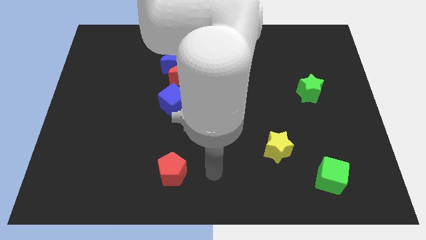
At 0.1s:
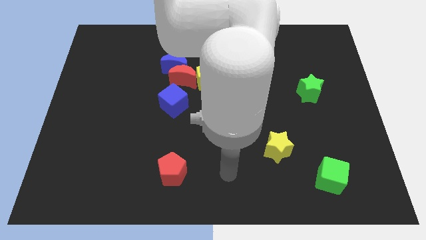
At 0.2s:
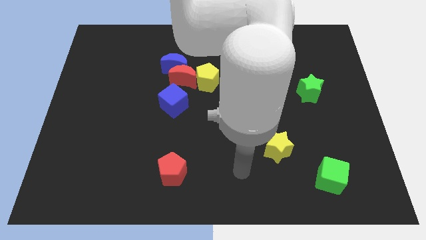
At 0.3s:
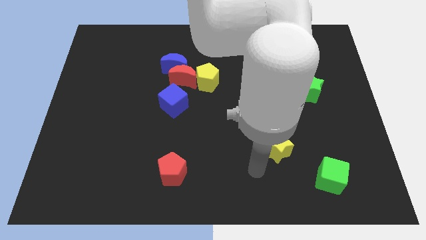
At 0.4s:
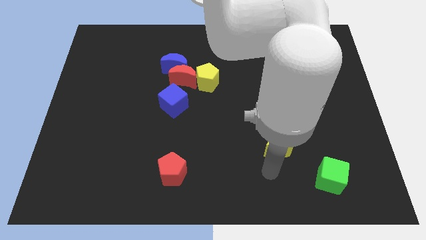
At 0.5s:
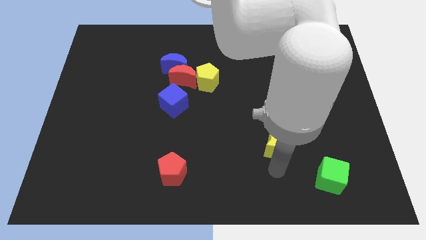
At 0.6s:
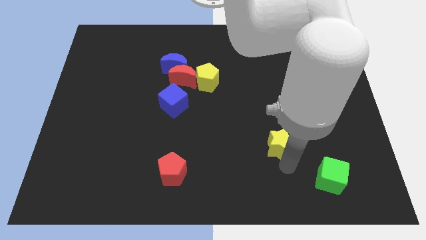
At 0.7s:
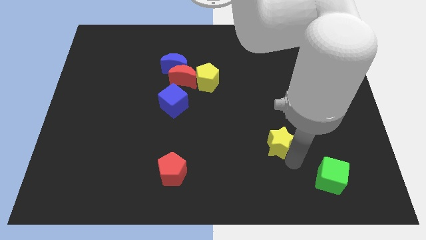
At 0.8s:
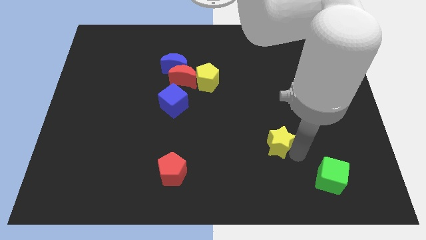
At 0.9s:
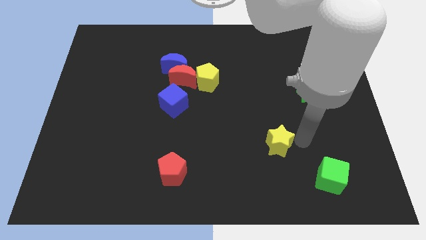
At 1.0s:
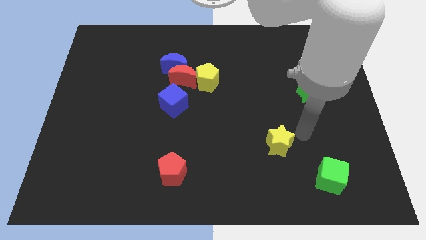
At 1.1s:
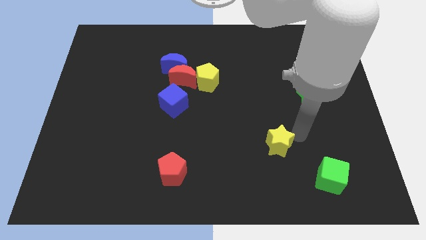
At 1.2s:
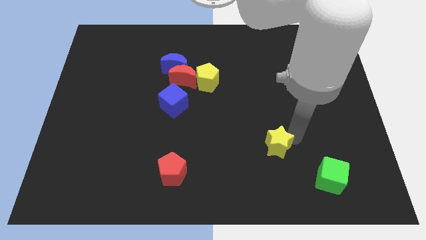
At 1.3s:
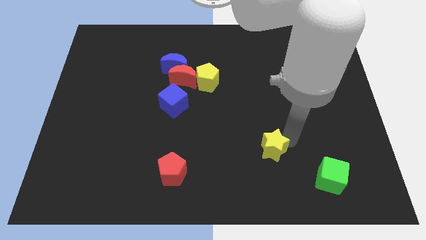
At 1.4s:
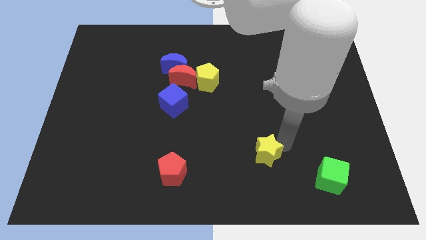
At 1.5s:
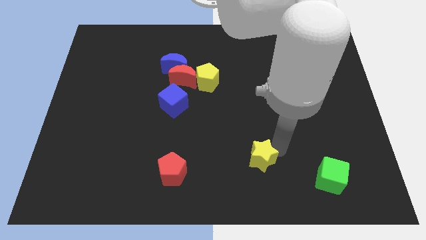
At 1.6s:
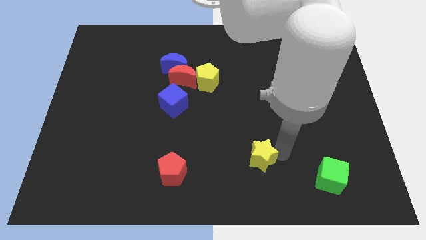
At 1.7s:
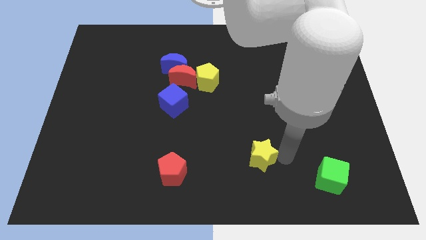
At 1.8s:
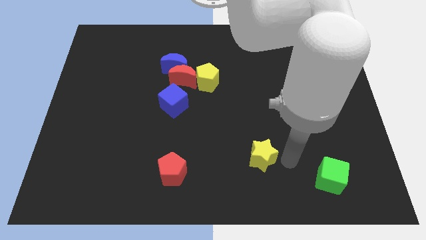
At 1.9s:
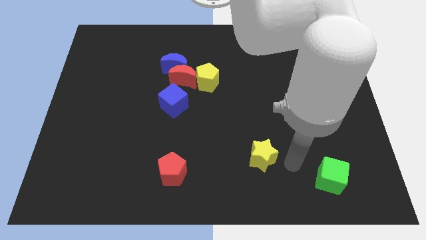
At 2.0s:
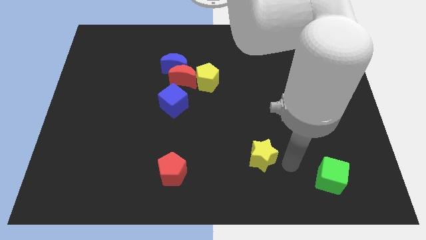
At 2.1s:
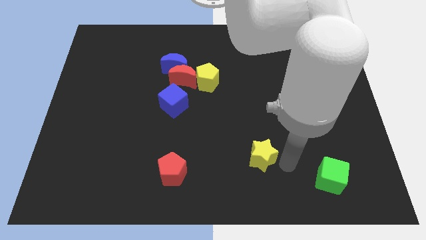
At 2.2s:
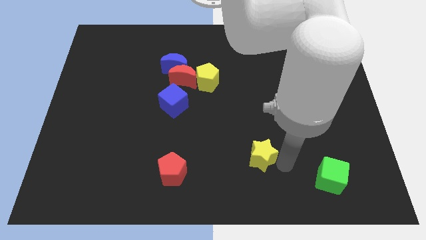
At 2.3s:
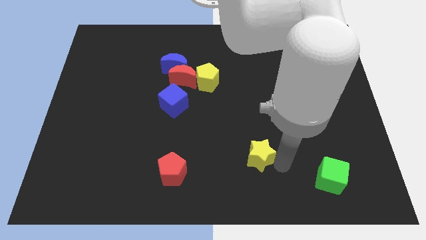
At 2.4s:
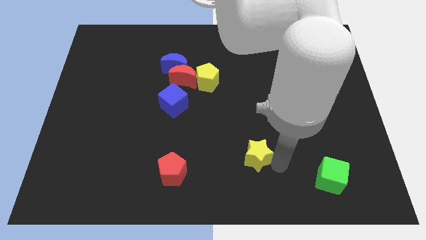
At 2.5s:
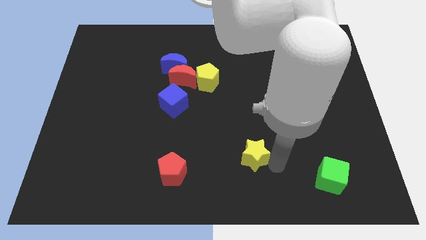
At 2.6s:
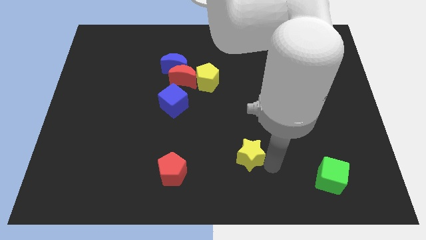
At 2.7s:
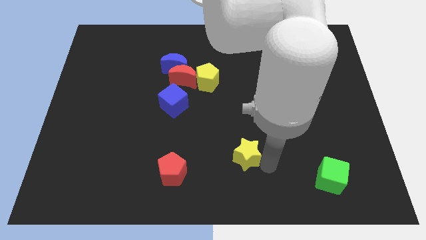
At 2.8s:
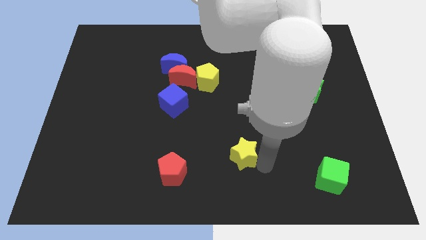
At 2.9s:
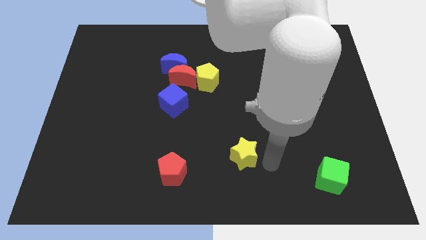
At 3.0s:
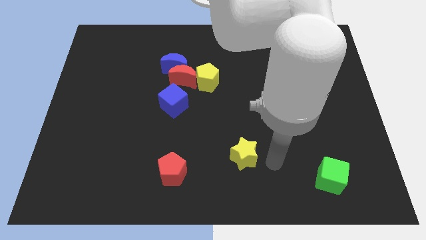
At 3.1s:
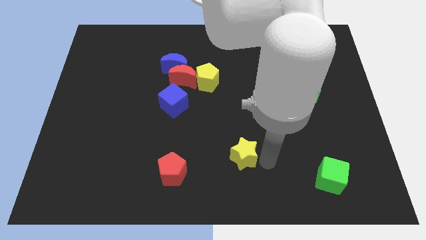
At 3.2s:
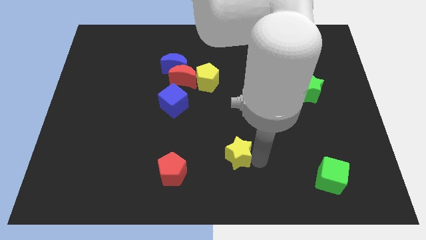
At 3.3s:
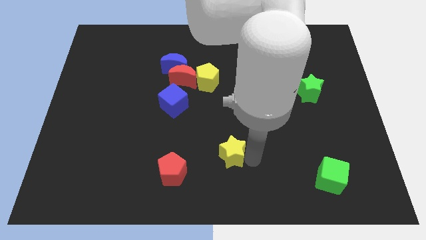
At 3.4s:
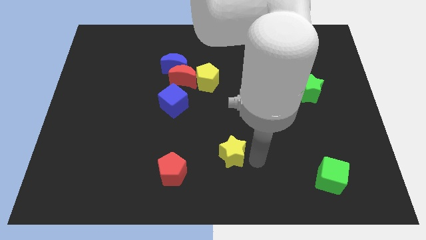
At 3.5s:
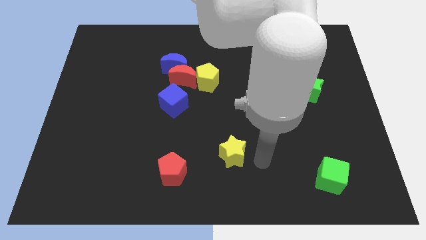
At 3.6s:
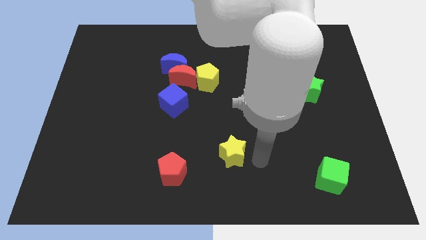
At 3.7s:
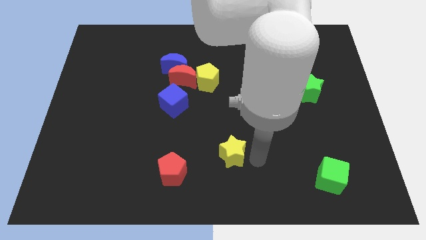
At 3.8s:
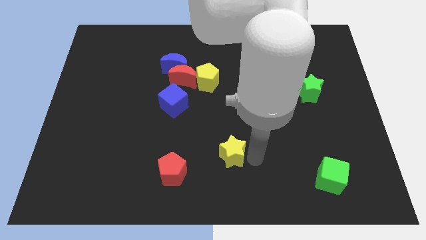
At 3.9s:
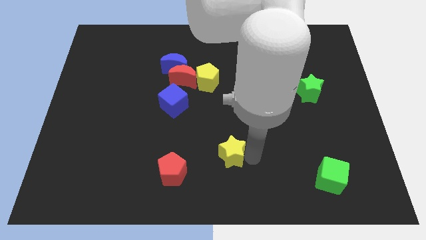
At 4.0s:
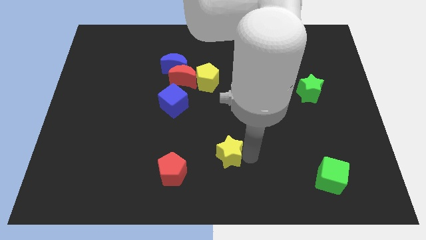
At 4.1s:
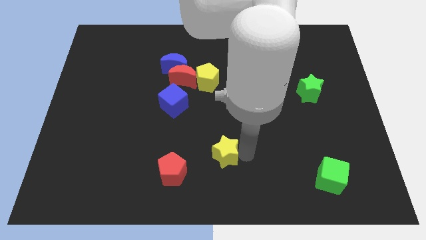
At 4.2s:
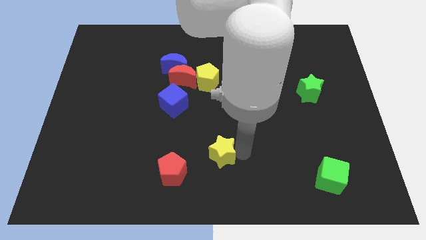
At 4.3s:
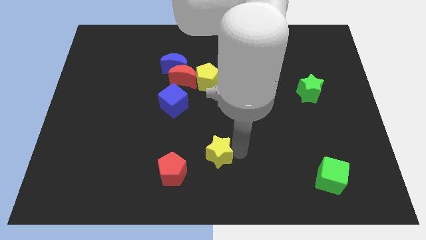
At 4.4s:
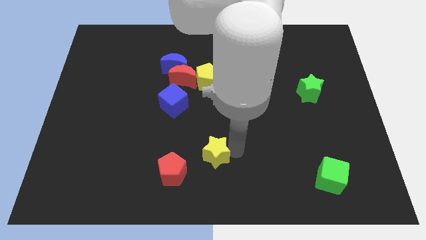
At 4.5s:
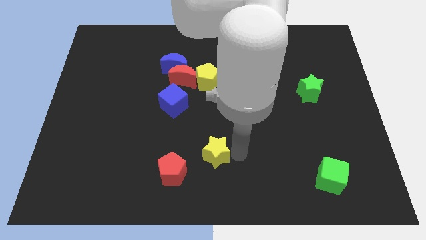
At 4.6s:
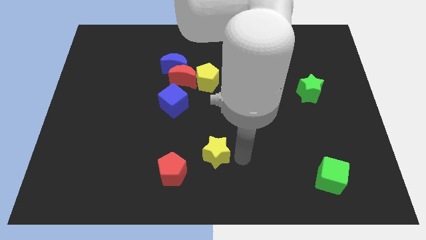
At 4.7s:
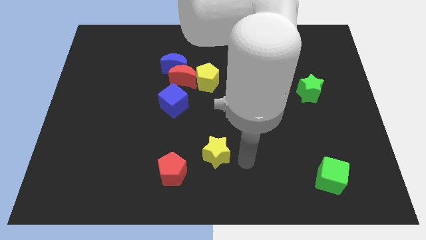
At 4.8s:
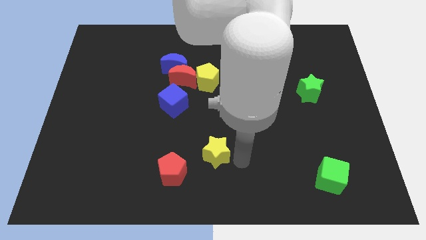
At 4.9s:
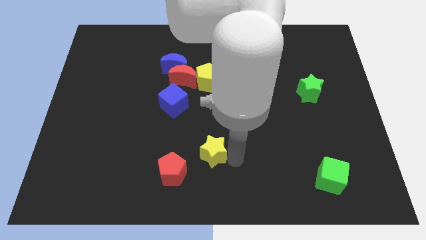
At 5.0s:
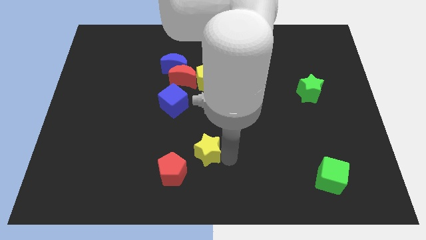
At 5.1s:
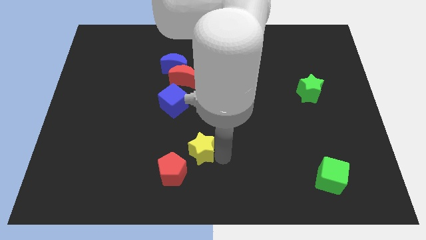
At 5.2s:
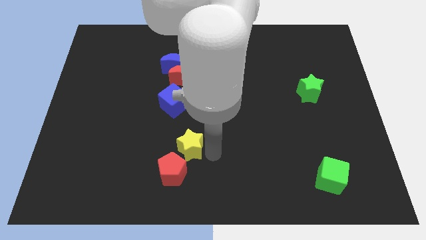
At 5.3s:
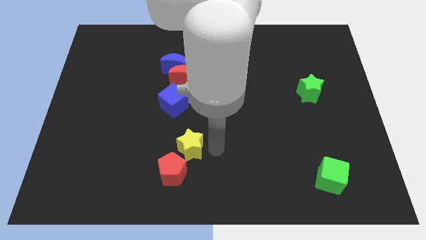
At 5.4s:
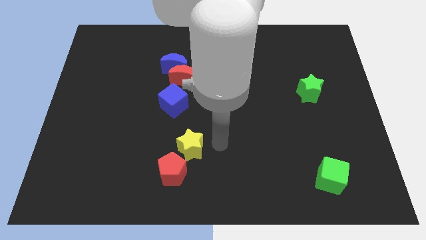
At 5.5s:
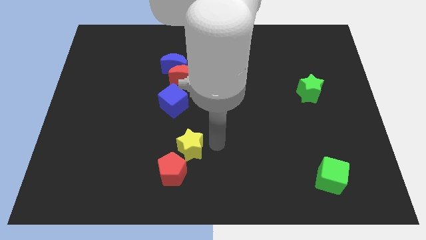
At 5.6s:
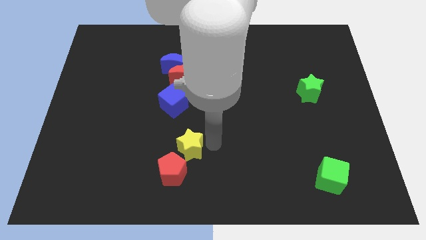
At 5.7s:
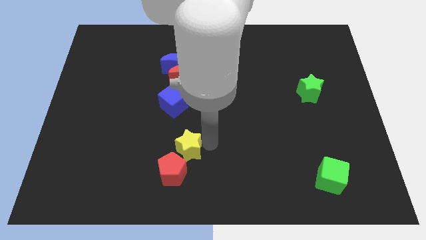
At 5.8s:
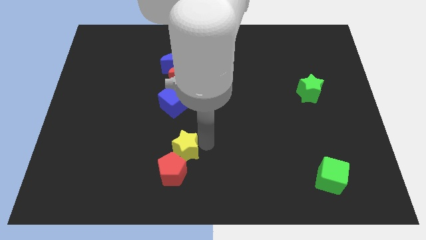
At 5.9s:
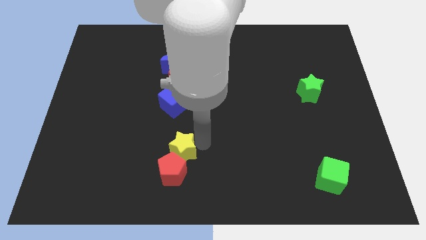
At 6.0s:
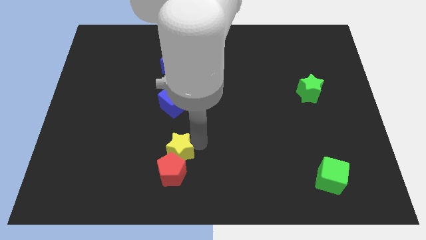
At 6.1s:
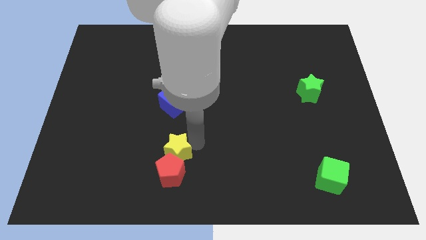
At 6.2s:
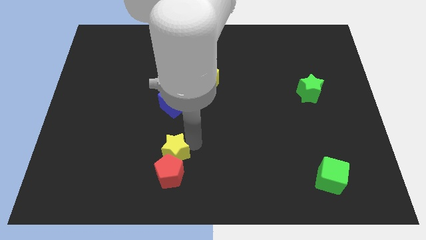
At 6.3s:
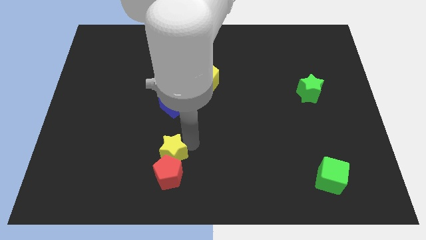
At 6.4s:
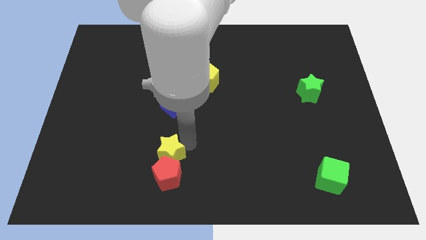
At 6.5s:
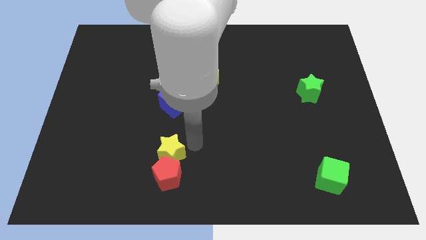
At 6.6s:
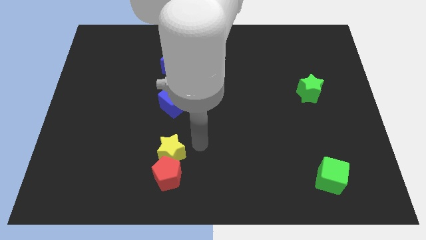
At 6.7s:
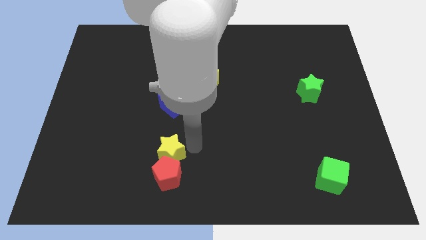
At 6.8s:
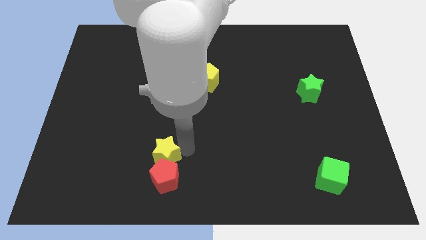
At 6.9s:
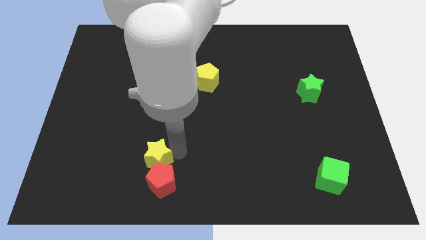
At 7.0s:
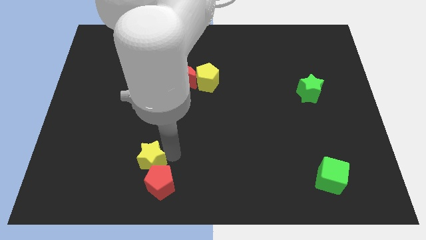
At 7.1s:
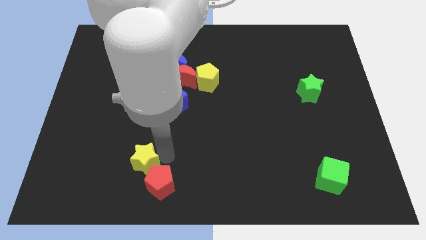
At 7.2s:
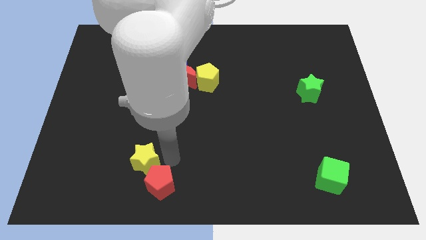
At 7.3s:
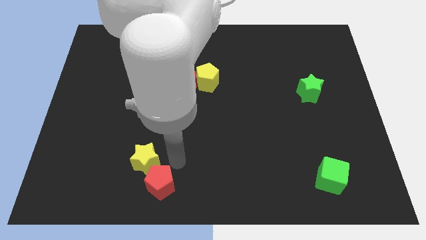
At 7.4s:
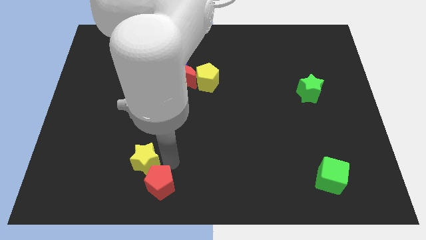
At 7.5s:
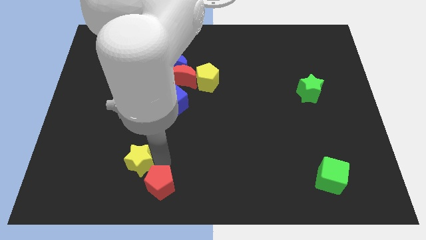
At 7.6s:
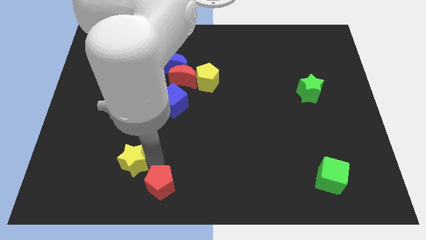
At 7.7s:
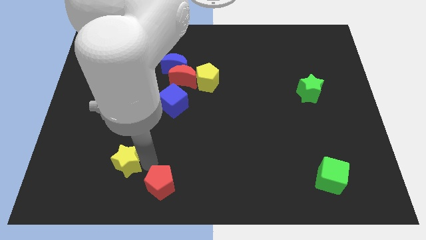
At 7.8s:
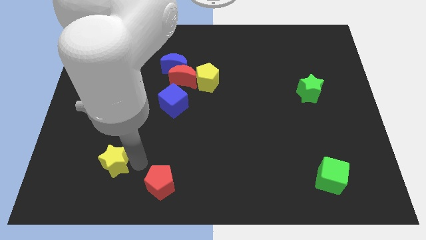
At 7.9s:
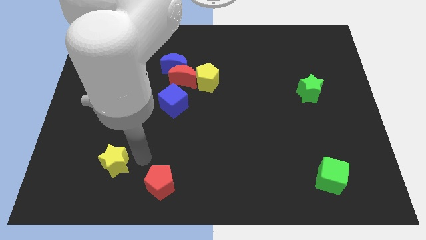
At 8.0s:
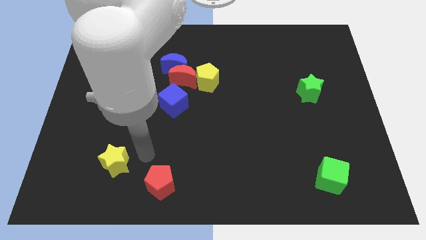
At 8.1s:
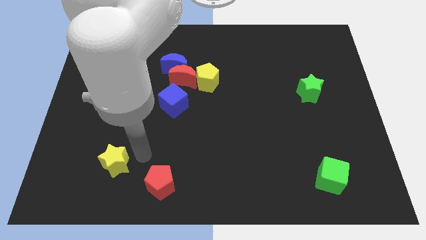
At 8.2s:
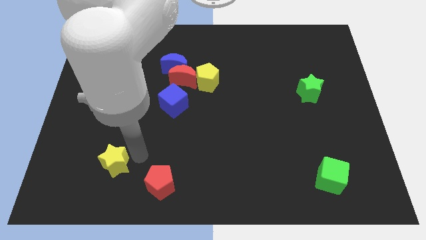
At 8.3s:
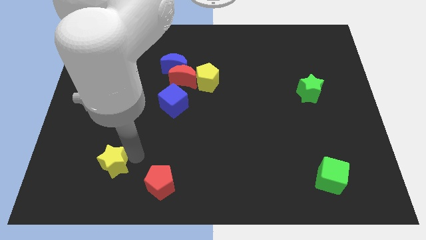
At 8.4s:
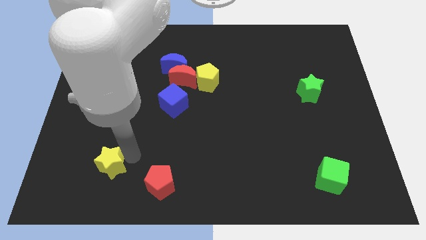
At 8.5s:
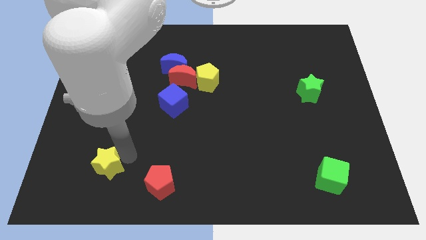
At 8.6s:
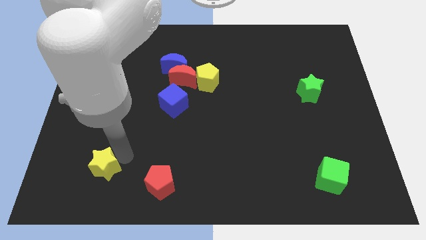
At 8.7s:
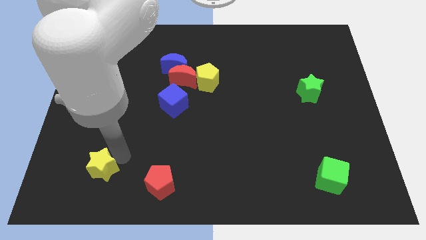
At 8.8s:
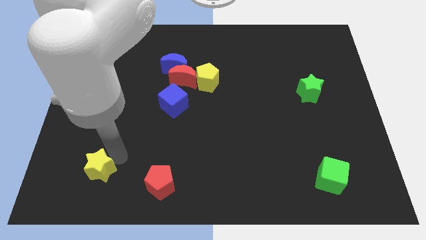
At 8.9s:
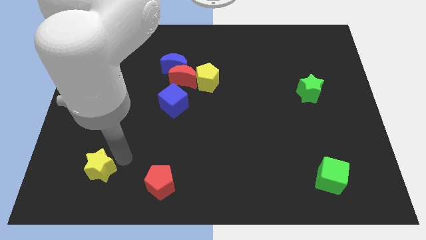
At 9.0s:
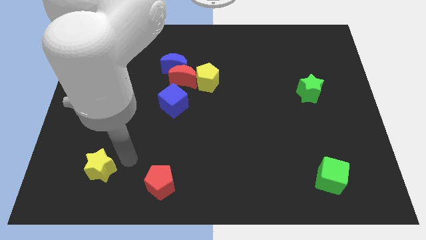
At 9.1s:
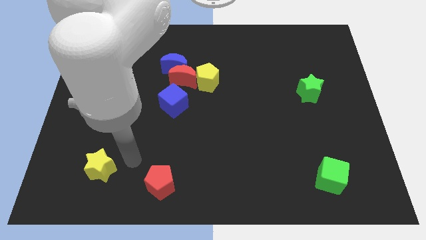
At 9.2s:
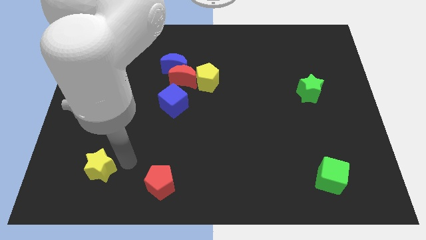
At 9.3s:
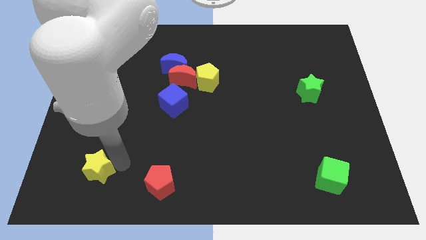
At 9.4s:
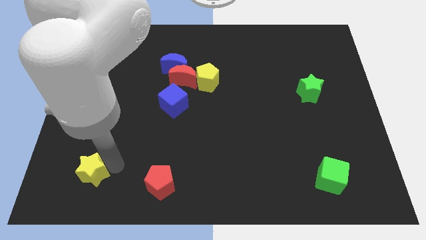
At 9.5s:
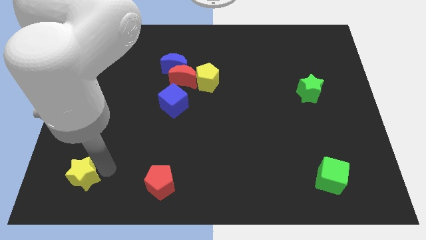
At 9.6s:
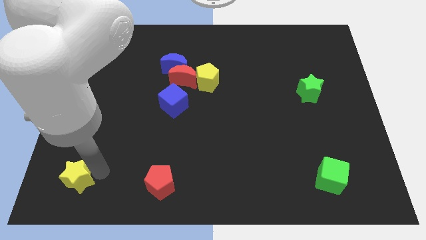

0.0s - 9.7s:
slide the yellow star to the bottom left
